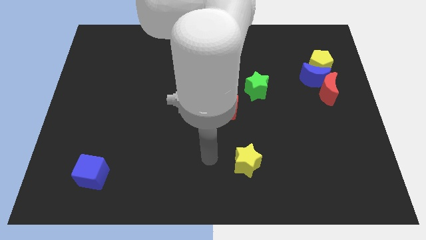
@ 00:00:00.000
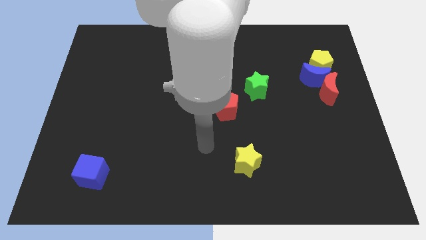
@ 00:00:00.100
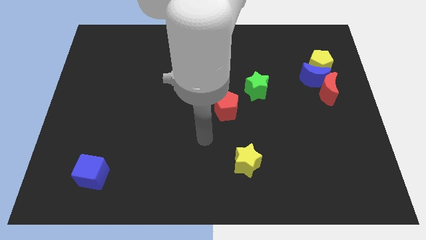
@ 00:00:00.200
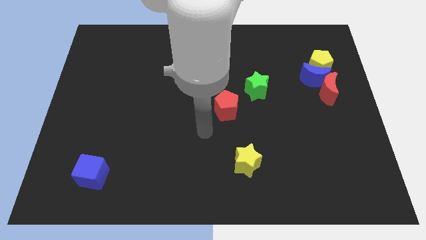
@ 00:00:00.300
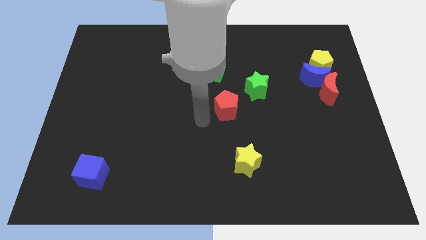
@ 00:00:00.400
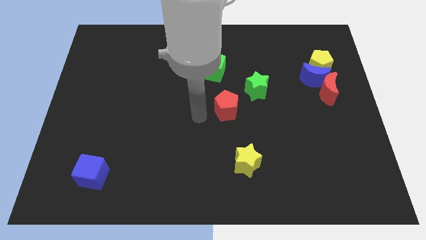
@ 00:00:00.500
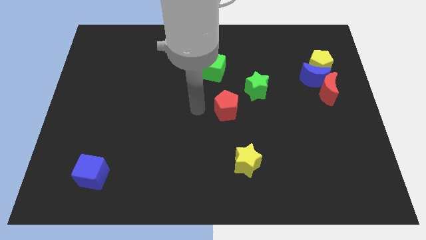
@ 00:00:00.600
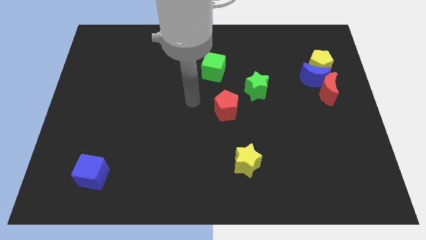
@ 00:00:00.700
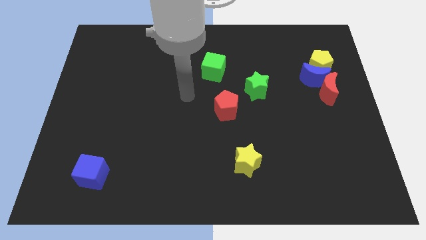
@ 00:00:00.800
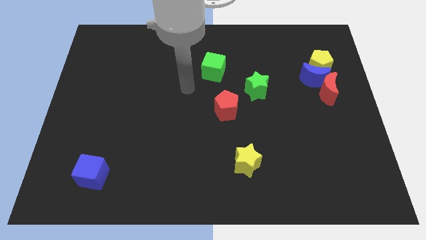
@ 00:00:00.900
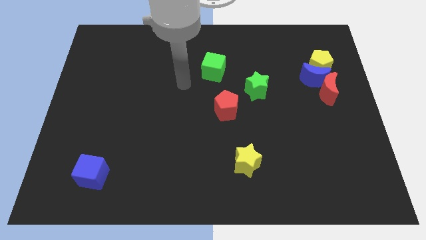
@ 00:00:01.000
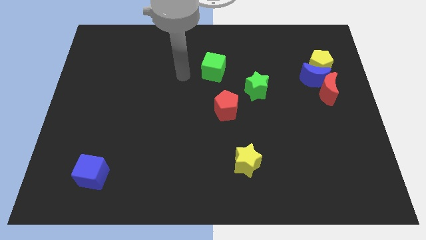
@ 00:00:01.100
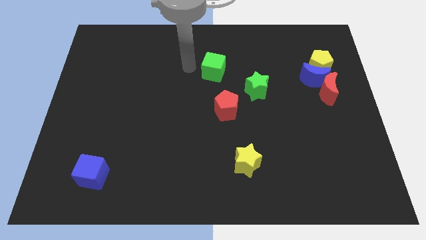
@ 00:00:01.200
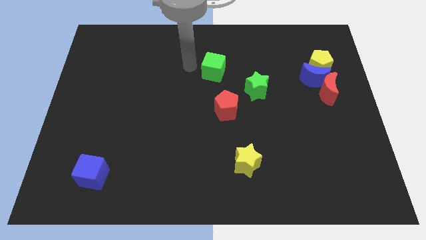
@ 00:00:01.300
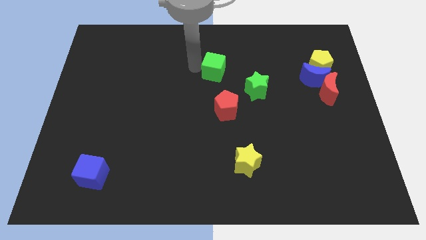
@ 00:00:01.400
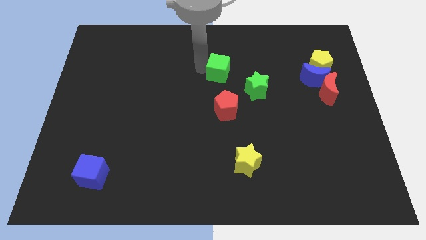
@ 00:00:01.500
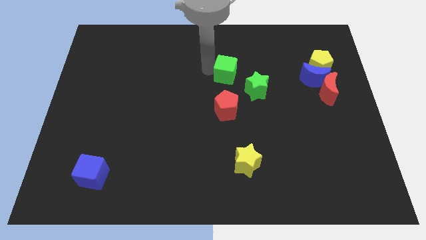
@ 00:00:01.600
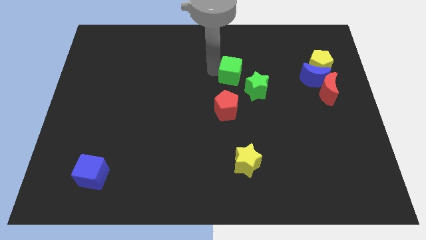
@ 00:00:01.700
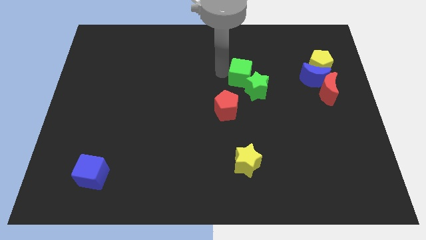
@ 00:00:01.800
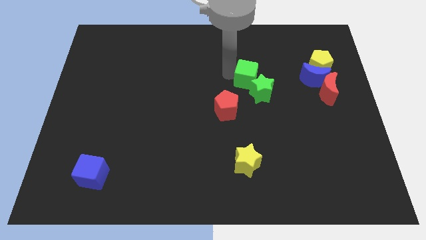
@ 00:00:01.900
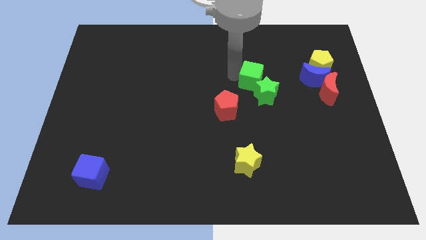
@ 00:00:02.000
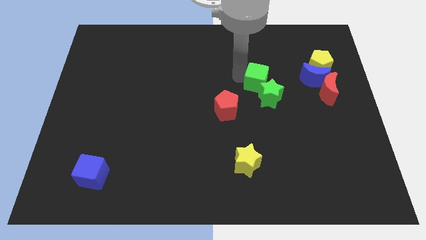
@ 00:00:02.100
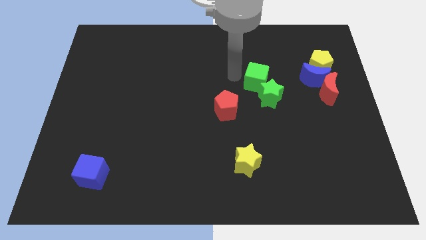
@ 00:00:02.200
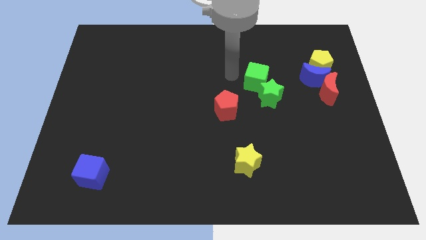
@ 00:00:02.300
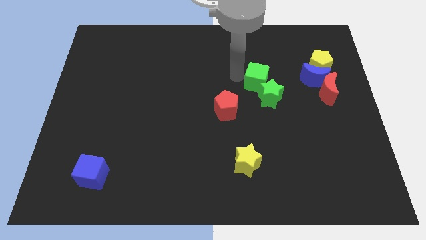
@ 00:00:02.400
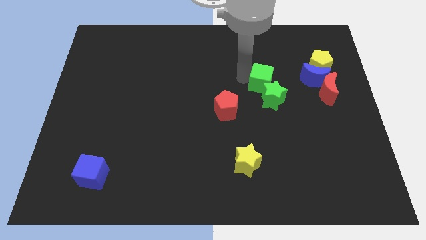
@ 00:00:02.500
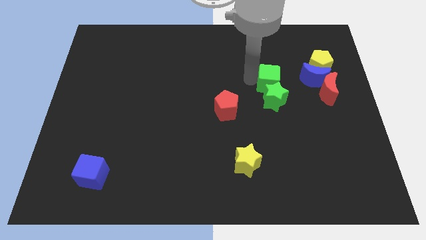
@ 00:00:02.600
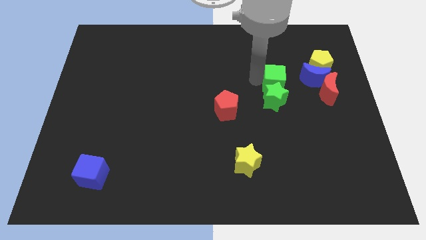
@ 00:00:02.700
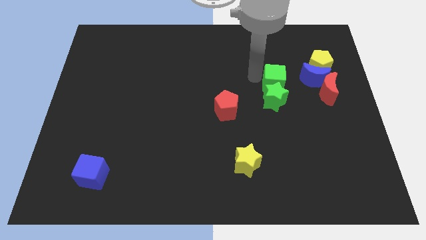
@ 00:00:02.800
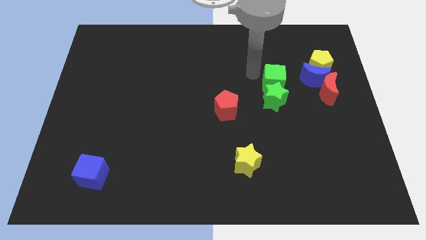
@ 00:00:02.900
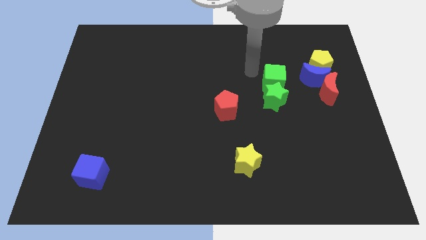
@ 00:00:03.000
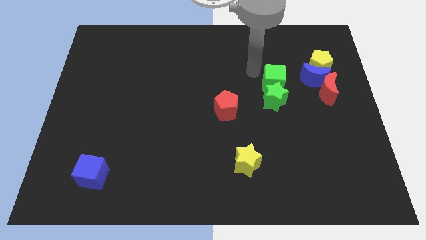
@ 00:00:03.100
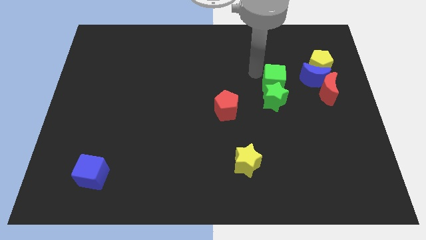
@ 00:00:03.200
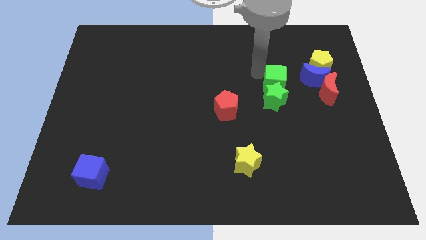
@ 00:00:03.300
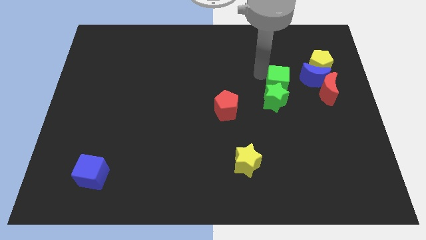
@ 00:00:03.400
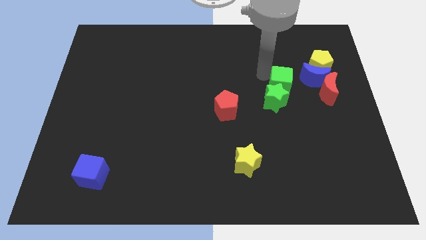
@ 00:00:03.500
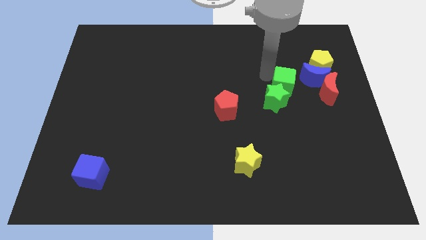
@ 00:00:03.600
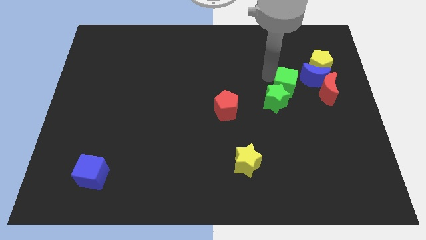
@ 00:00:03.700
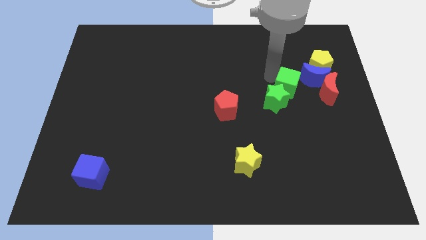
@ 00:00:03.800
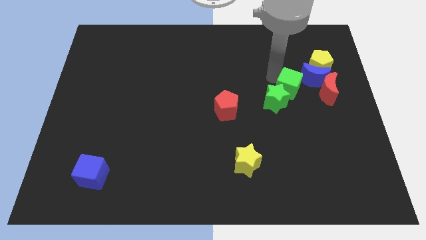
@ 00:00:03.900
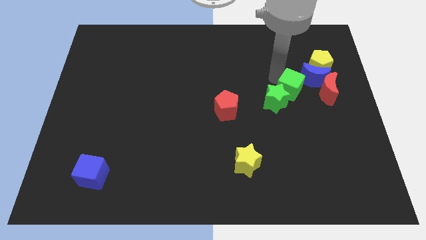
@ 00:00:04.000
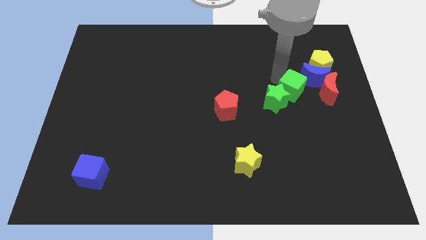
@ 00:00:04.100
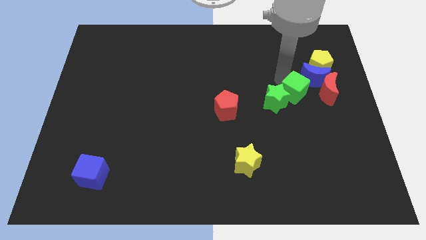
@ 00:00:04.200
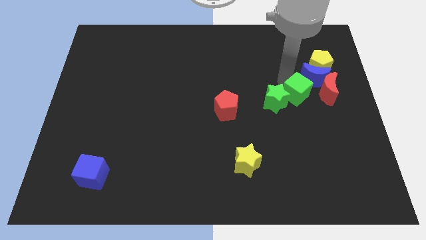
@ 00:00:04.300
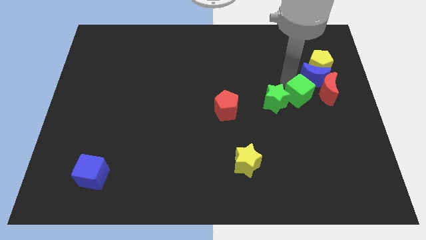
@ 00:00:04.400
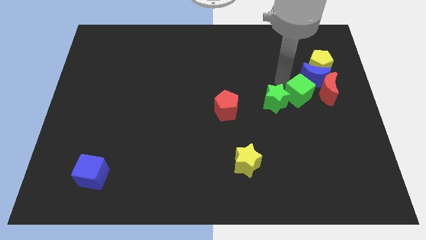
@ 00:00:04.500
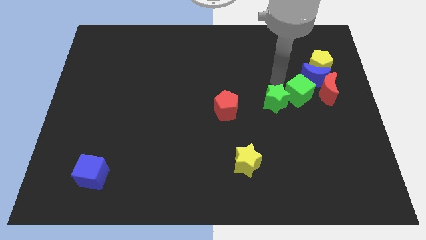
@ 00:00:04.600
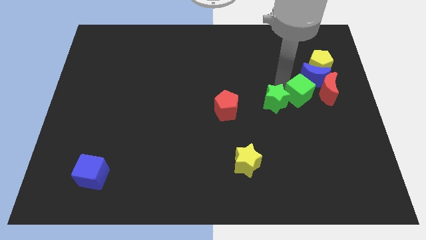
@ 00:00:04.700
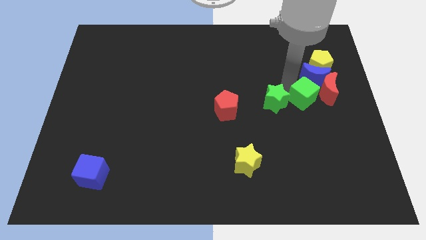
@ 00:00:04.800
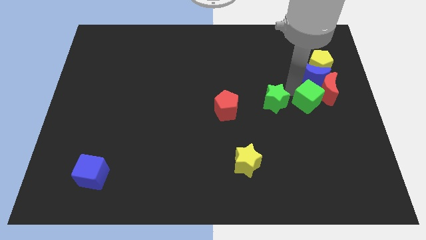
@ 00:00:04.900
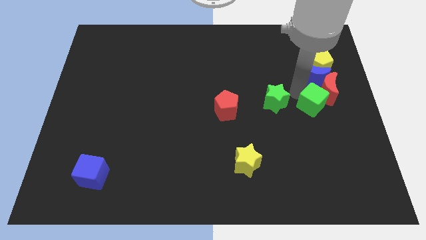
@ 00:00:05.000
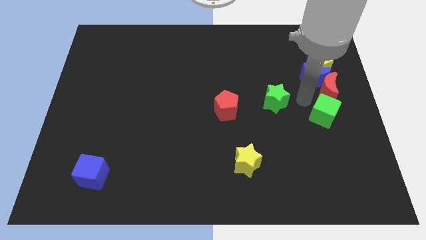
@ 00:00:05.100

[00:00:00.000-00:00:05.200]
push the green cube to the right side of the board
